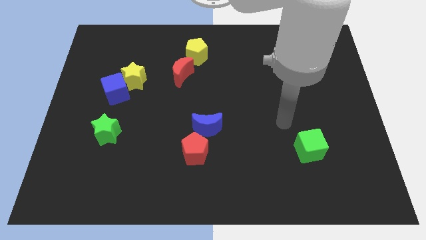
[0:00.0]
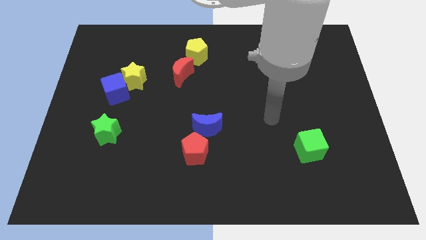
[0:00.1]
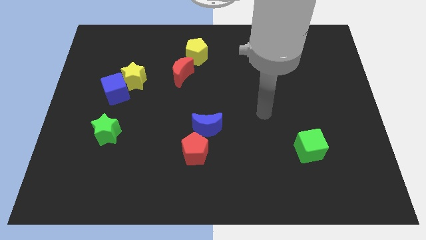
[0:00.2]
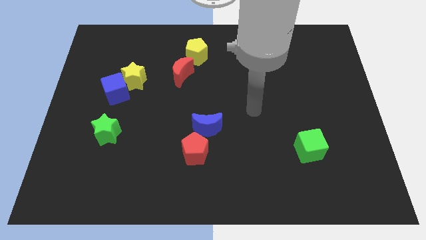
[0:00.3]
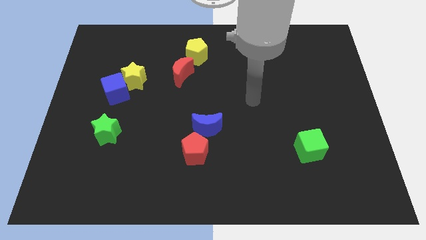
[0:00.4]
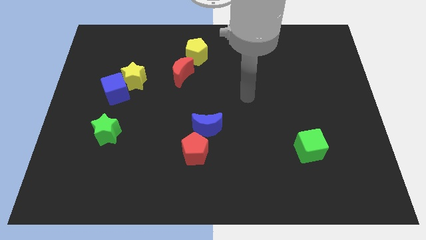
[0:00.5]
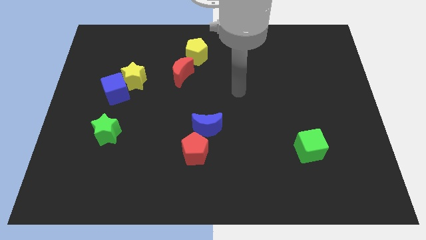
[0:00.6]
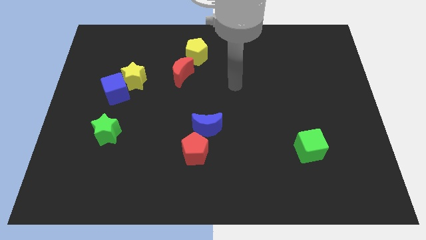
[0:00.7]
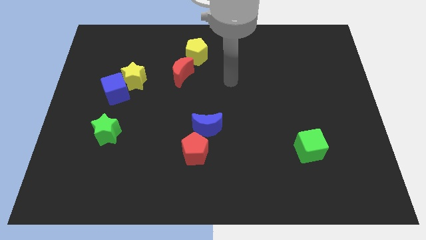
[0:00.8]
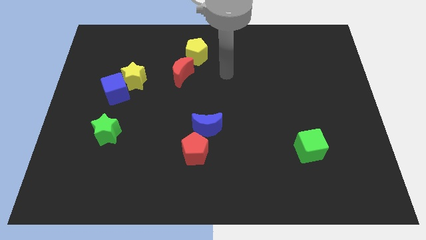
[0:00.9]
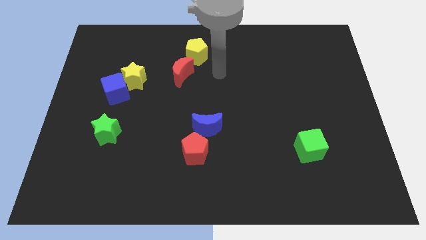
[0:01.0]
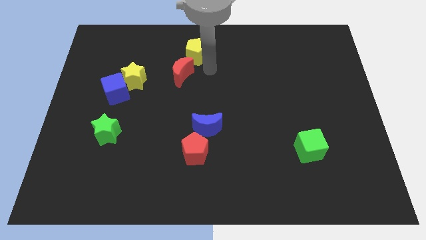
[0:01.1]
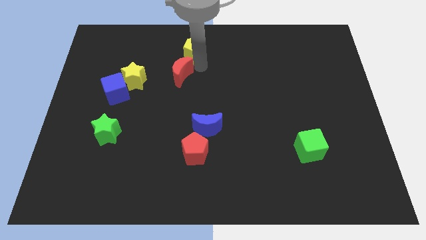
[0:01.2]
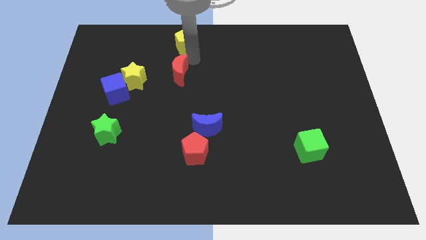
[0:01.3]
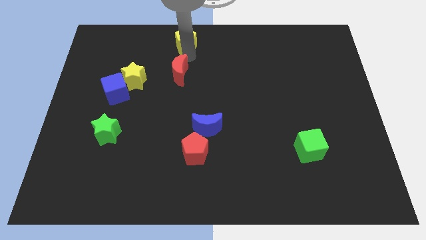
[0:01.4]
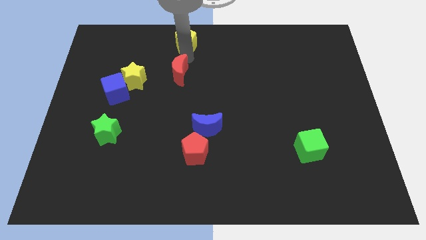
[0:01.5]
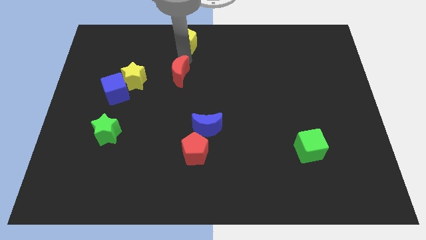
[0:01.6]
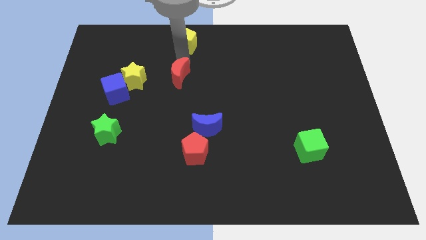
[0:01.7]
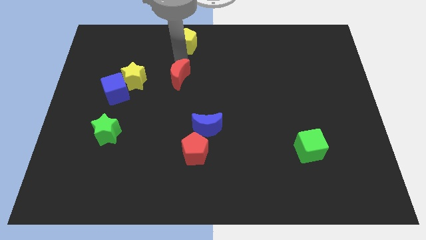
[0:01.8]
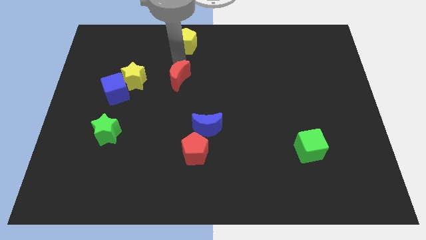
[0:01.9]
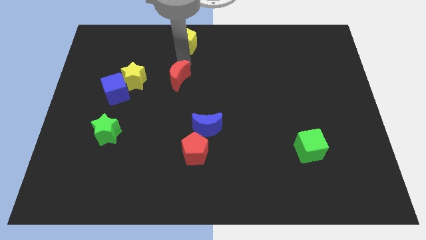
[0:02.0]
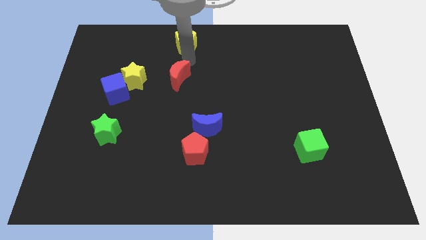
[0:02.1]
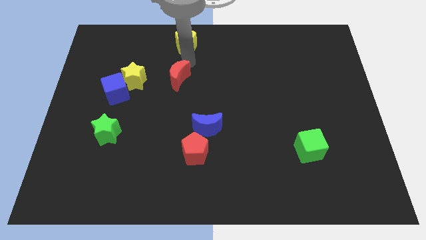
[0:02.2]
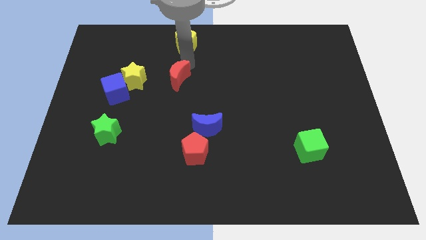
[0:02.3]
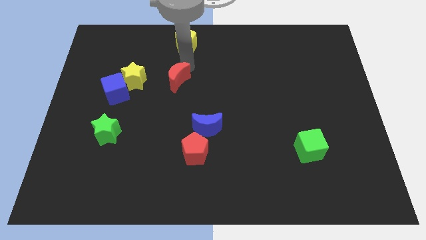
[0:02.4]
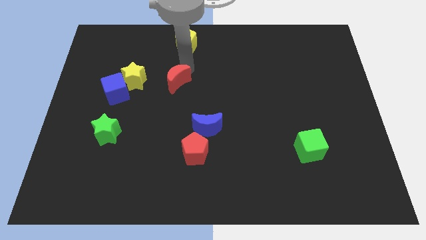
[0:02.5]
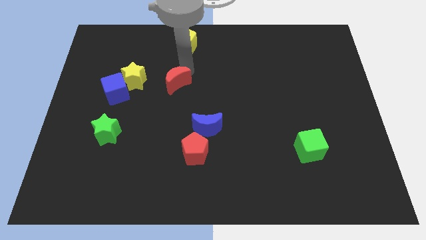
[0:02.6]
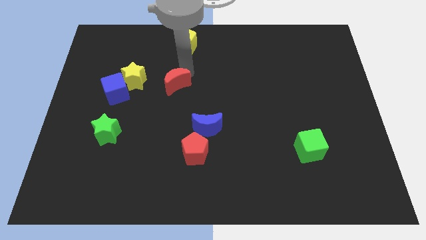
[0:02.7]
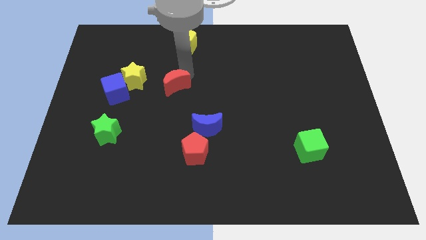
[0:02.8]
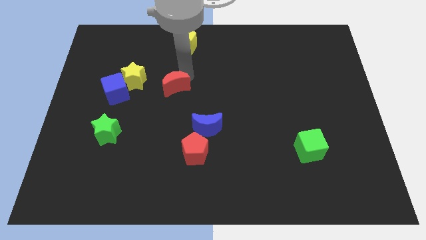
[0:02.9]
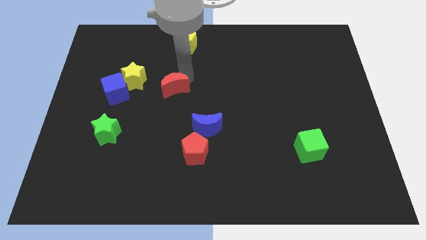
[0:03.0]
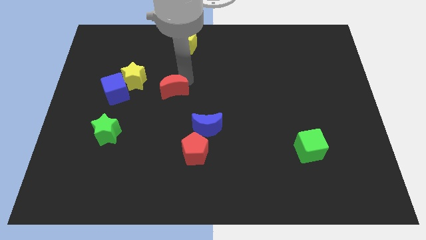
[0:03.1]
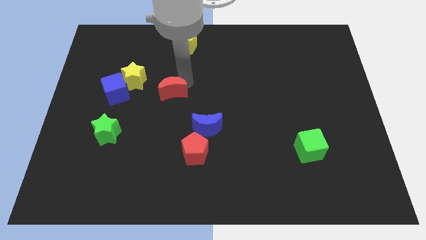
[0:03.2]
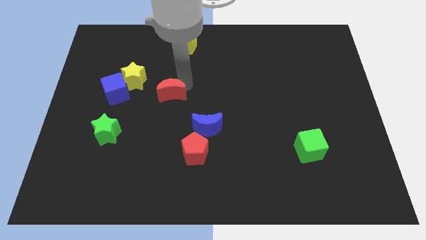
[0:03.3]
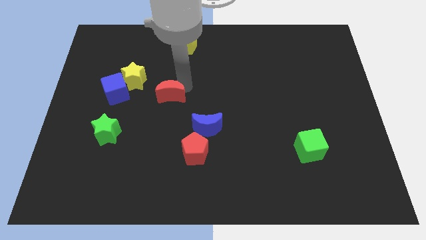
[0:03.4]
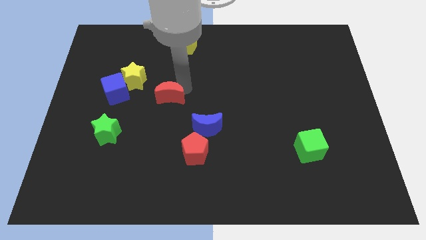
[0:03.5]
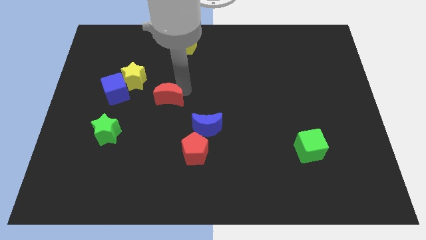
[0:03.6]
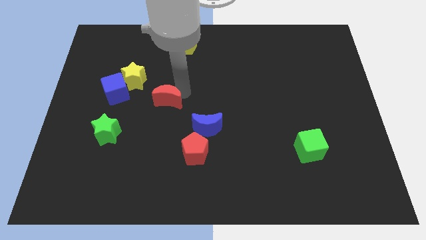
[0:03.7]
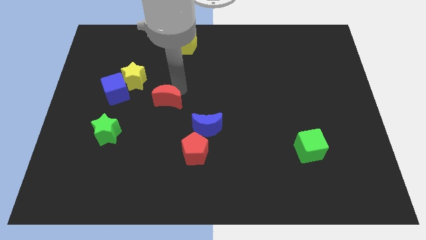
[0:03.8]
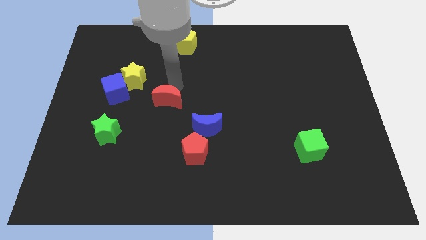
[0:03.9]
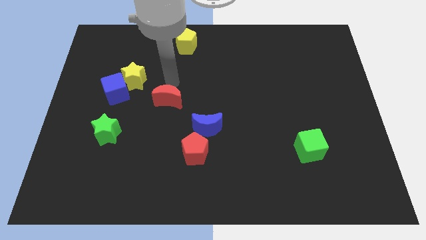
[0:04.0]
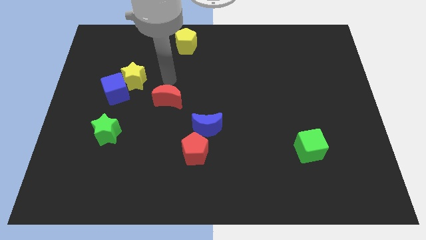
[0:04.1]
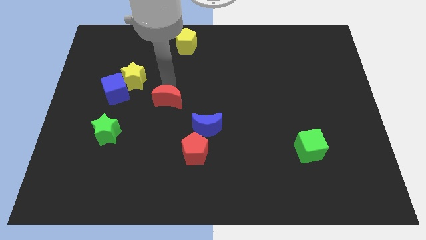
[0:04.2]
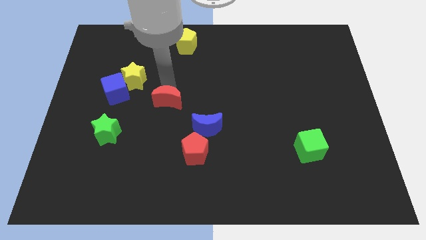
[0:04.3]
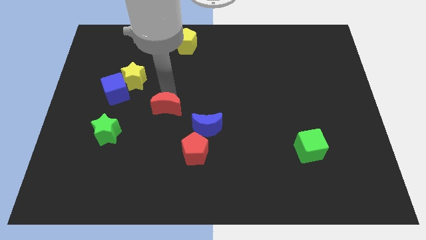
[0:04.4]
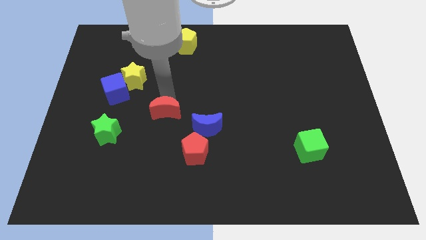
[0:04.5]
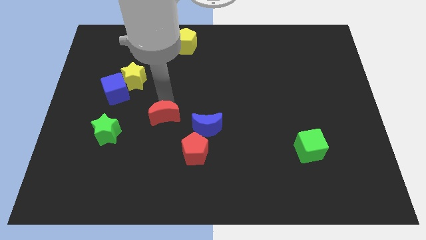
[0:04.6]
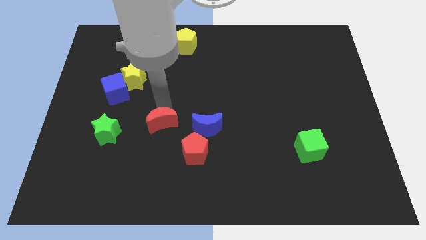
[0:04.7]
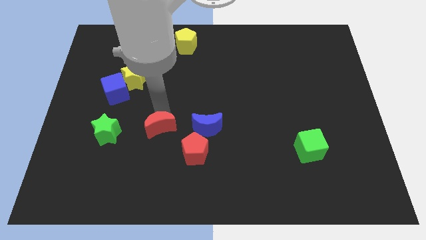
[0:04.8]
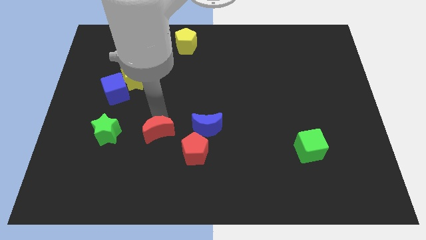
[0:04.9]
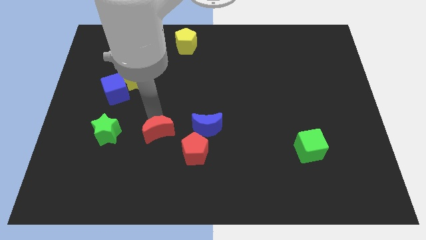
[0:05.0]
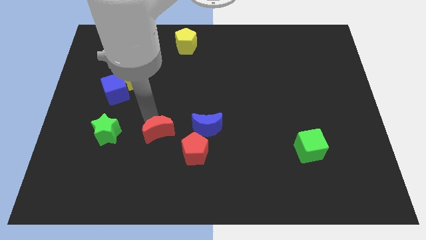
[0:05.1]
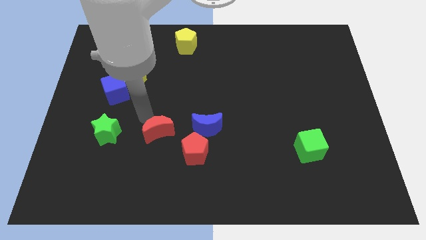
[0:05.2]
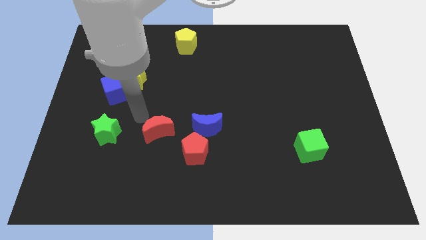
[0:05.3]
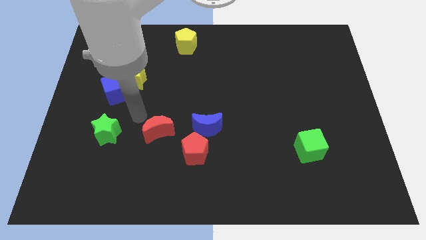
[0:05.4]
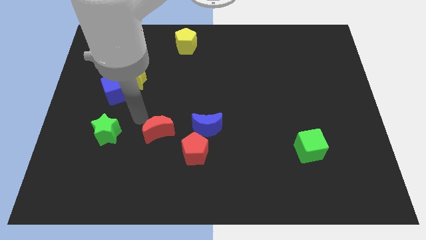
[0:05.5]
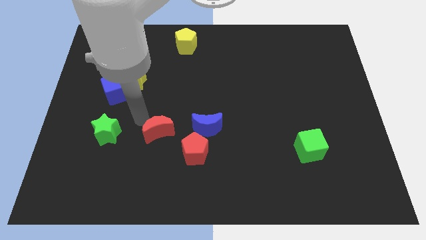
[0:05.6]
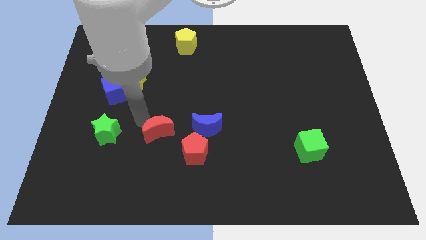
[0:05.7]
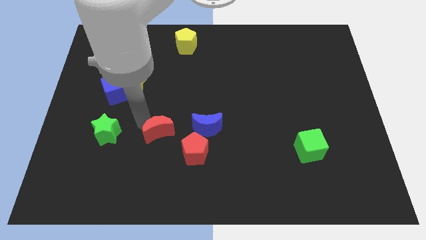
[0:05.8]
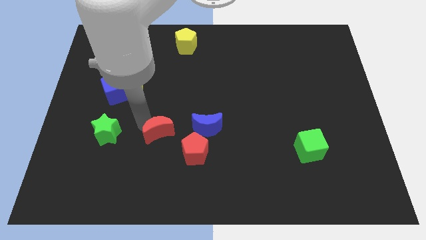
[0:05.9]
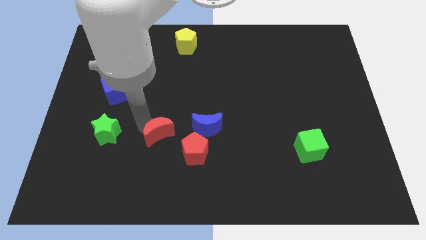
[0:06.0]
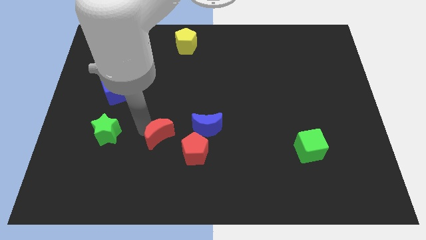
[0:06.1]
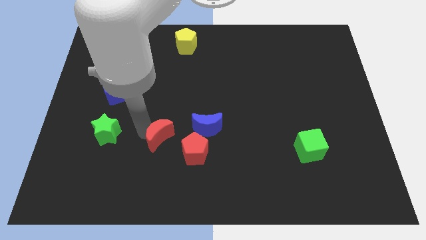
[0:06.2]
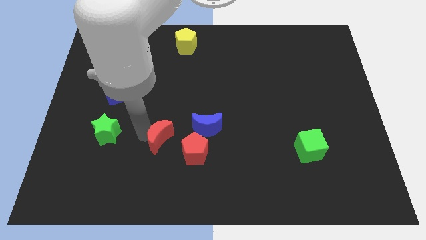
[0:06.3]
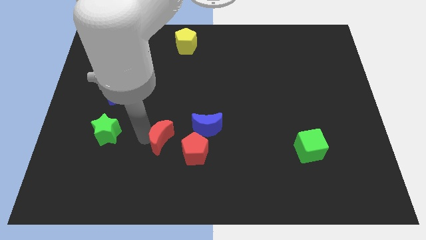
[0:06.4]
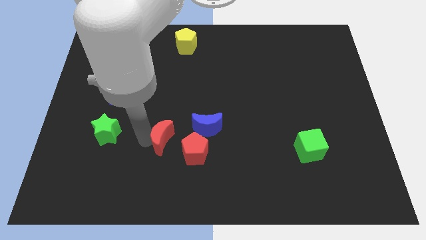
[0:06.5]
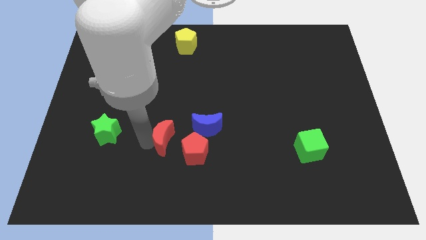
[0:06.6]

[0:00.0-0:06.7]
push the red moon to the bottom left side of the blue moon

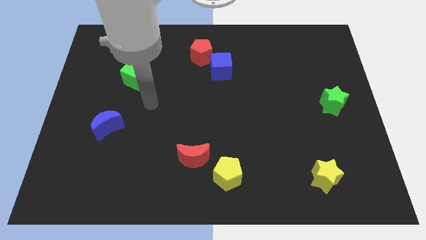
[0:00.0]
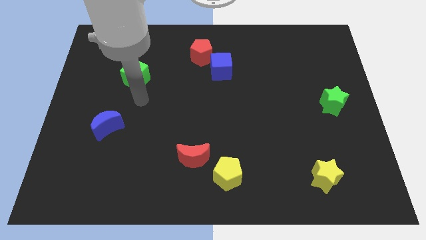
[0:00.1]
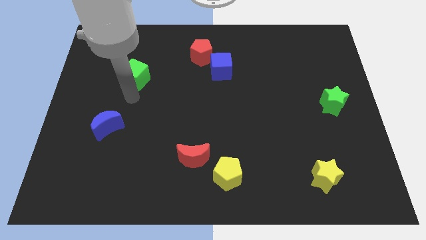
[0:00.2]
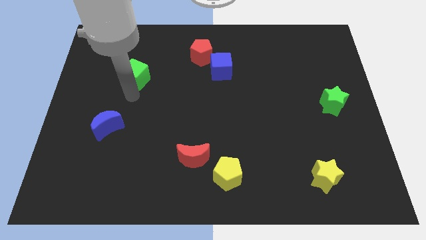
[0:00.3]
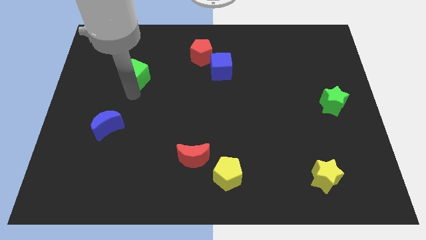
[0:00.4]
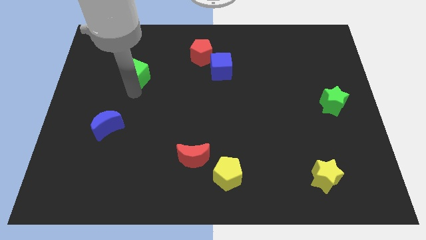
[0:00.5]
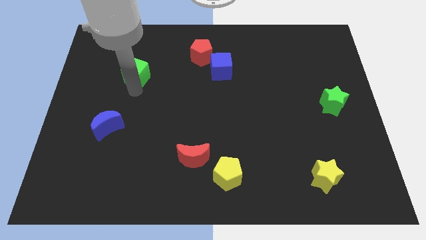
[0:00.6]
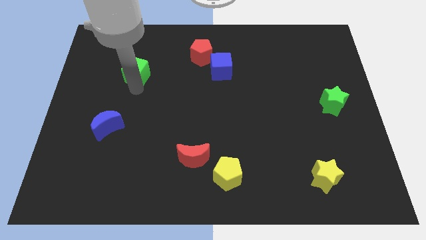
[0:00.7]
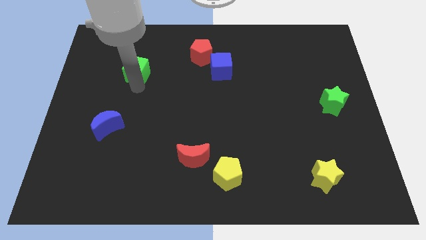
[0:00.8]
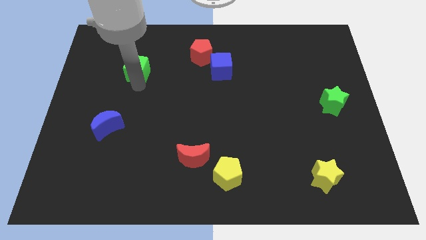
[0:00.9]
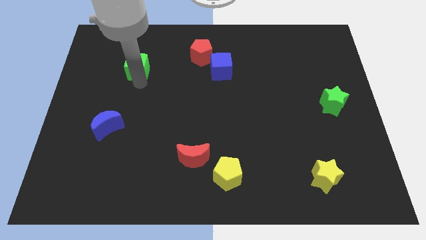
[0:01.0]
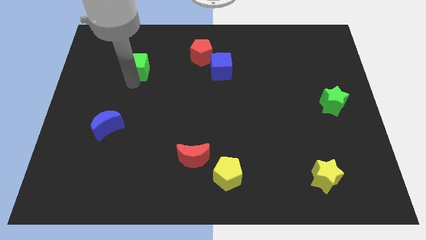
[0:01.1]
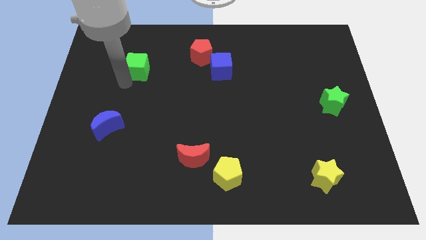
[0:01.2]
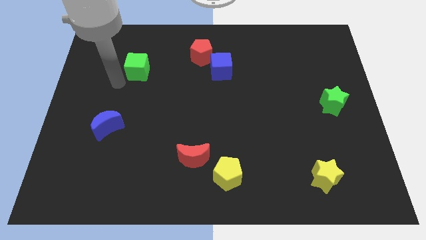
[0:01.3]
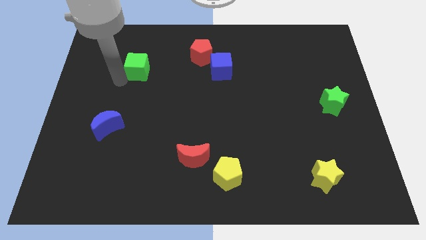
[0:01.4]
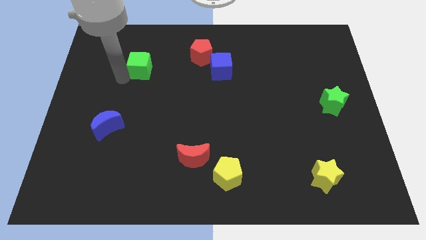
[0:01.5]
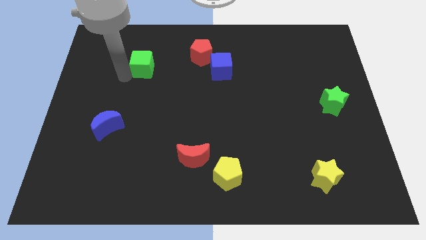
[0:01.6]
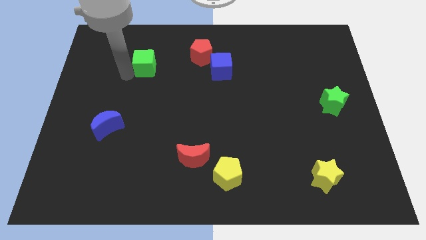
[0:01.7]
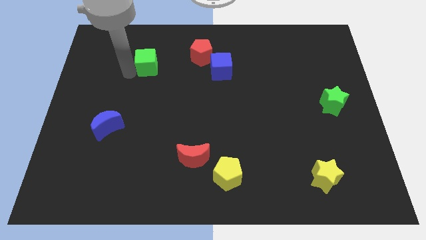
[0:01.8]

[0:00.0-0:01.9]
move the green cube to the left side of the red pentagon
